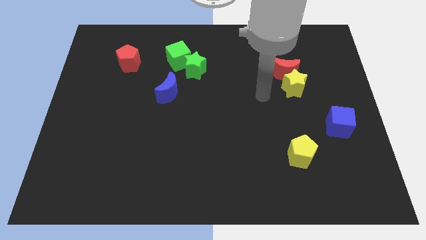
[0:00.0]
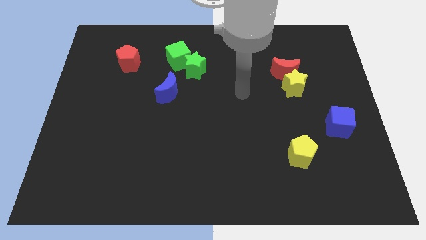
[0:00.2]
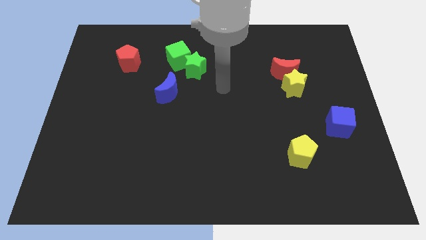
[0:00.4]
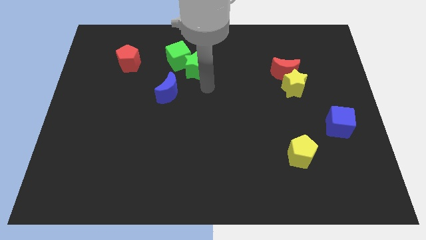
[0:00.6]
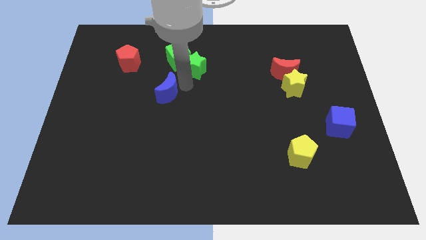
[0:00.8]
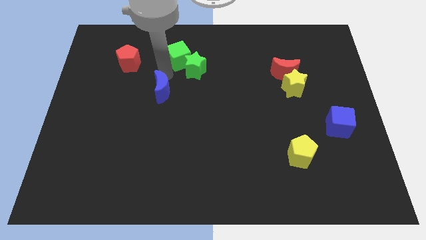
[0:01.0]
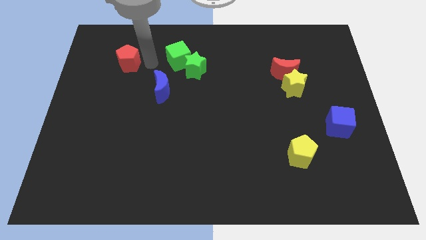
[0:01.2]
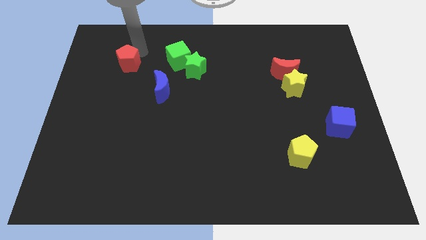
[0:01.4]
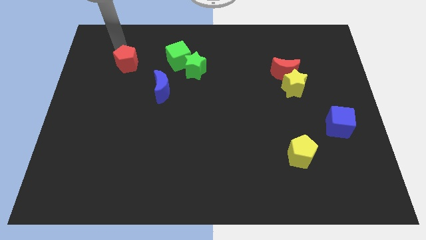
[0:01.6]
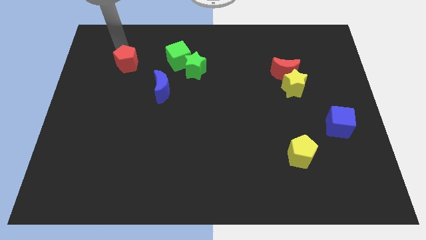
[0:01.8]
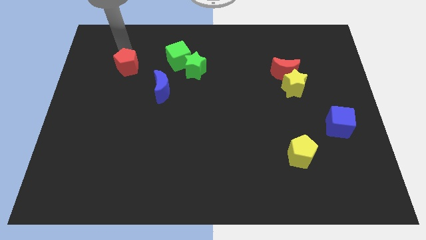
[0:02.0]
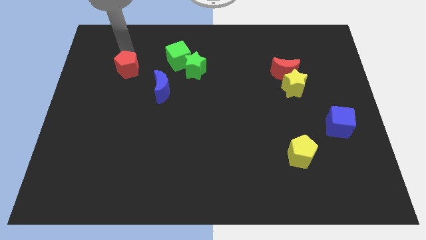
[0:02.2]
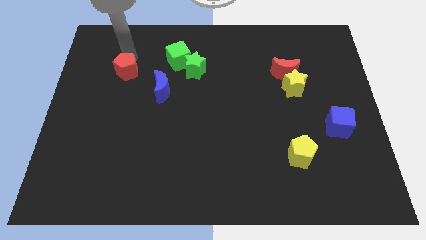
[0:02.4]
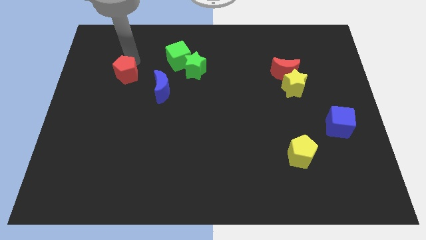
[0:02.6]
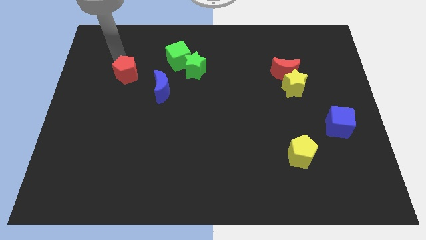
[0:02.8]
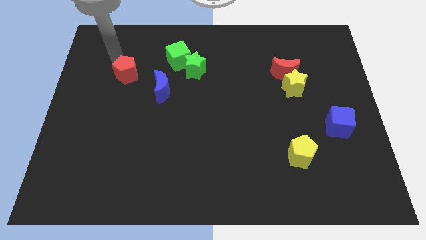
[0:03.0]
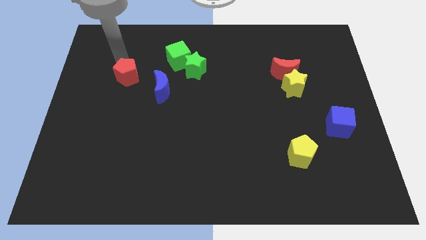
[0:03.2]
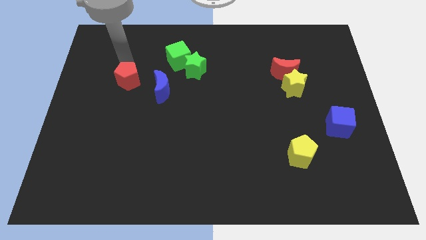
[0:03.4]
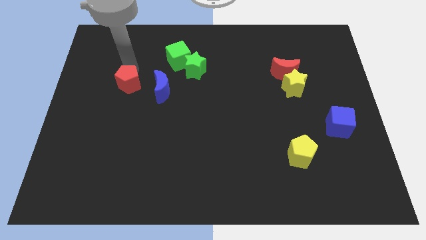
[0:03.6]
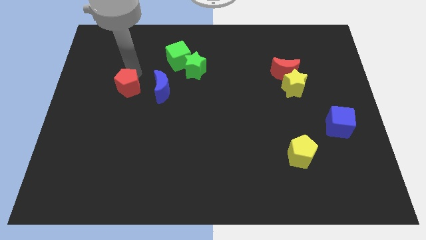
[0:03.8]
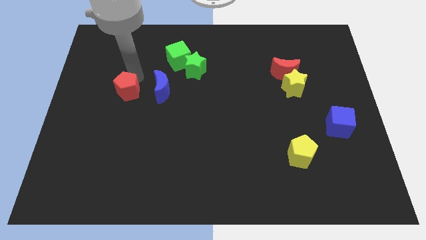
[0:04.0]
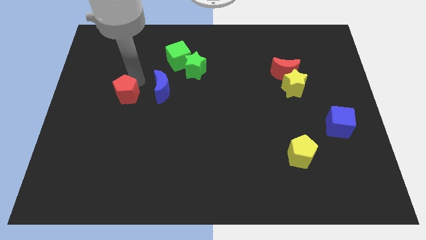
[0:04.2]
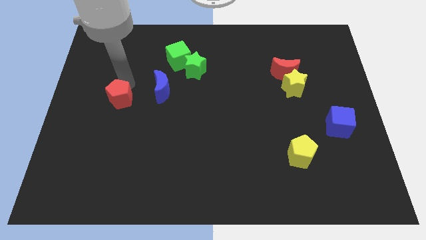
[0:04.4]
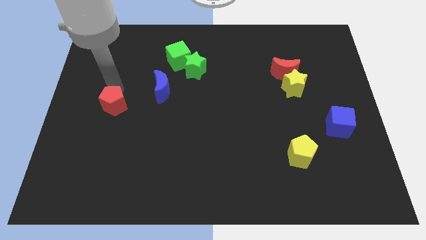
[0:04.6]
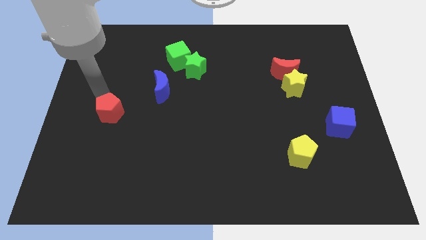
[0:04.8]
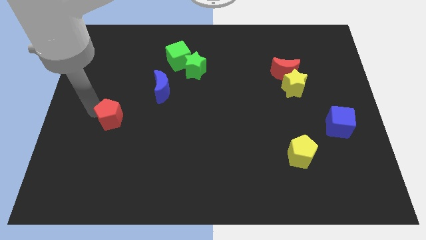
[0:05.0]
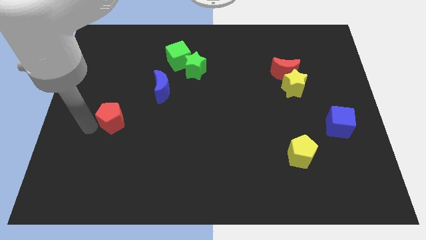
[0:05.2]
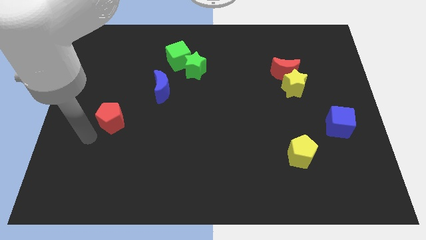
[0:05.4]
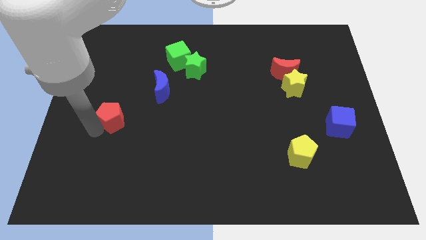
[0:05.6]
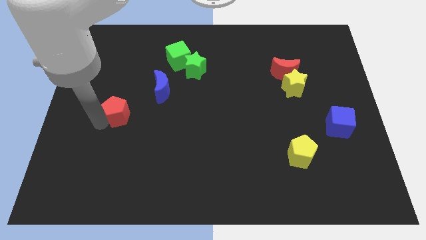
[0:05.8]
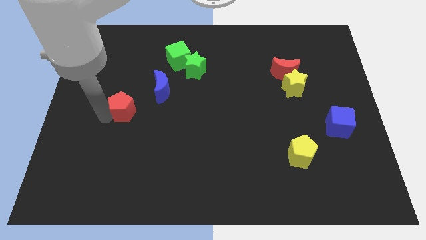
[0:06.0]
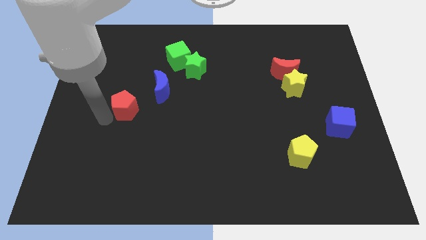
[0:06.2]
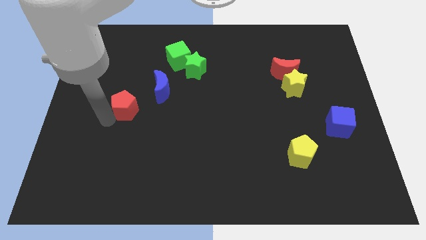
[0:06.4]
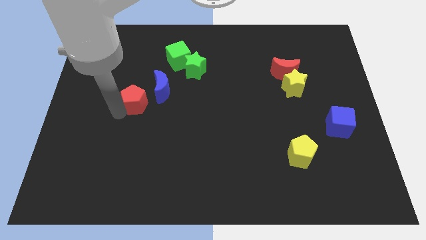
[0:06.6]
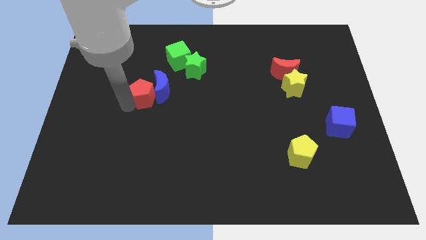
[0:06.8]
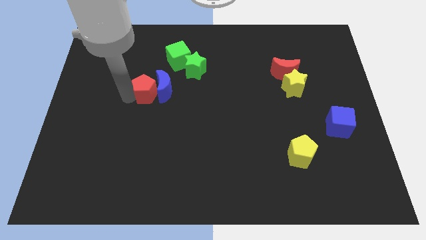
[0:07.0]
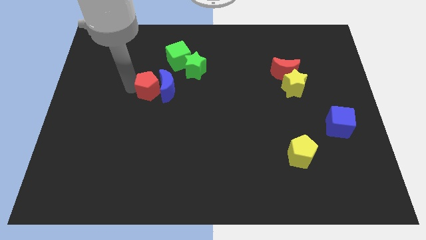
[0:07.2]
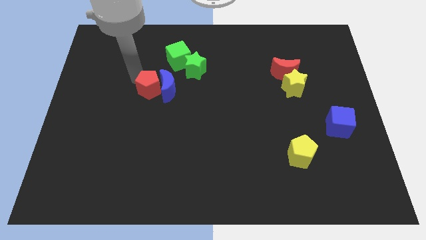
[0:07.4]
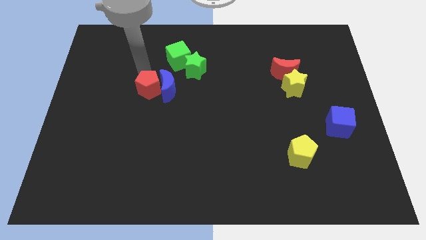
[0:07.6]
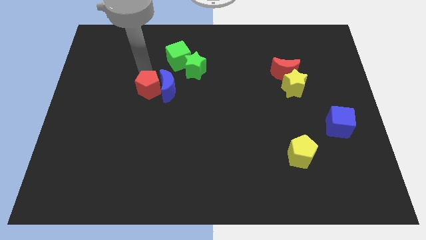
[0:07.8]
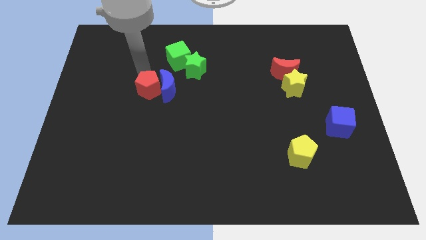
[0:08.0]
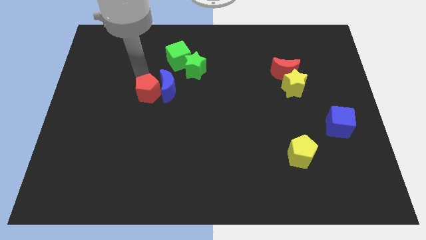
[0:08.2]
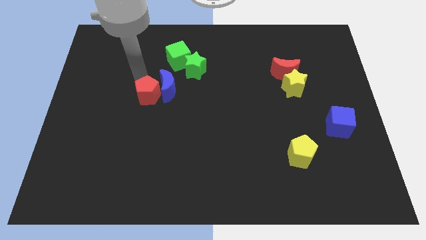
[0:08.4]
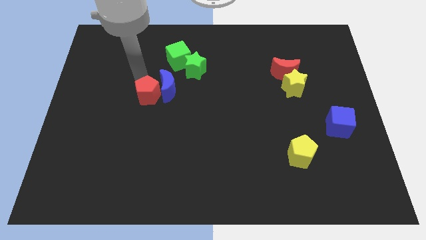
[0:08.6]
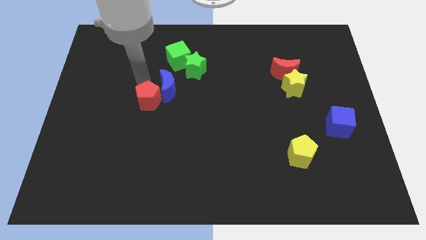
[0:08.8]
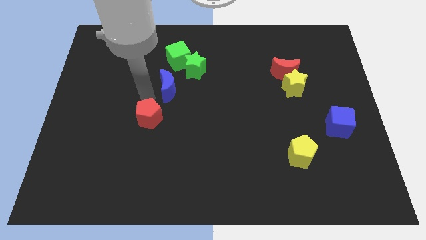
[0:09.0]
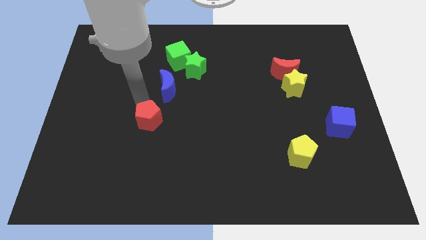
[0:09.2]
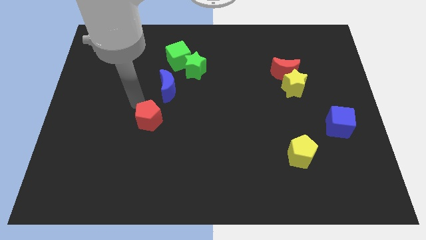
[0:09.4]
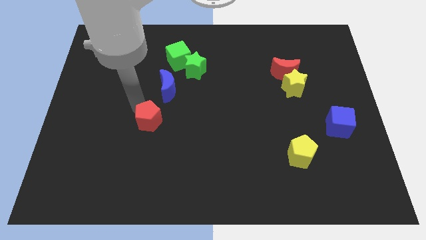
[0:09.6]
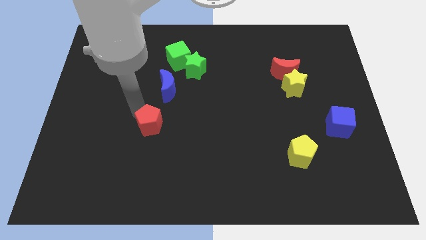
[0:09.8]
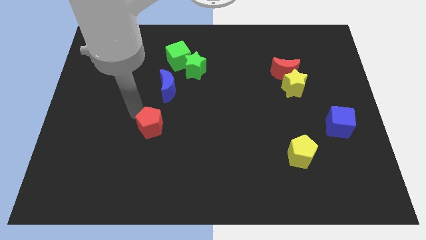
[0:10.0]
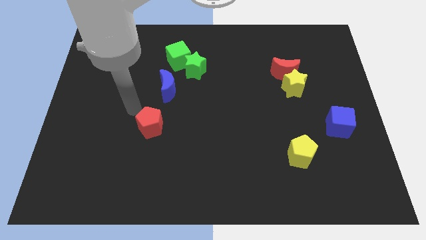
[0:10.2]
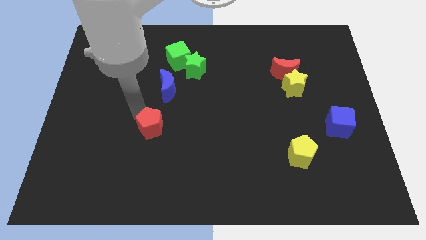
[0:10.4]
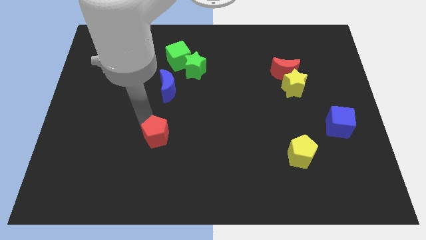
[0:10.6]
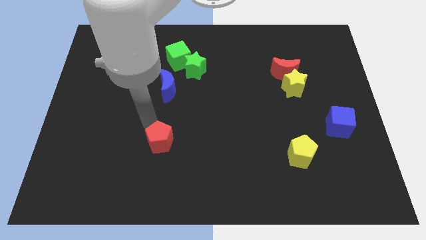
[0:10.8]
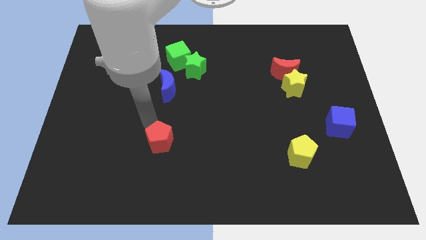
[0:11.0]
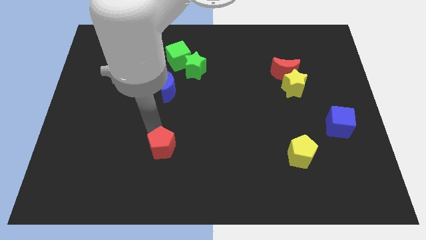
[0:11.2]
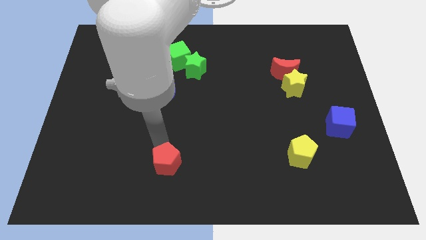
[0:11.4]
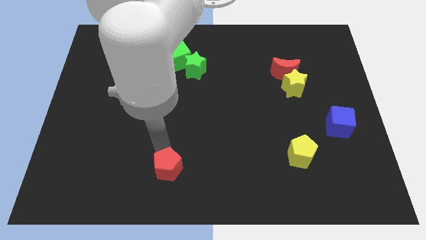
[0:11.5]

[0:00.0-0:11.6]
push the red pentagon to the bottom

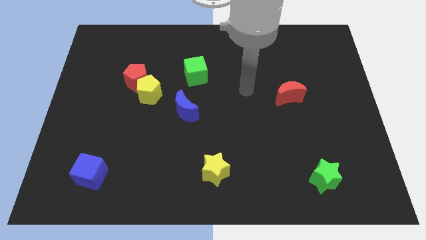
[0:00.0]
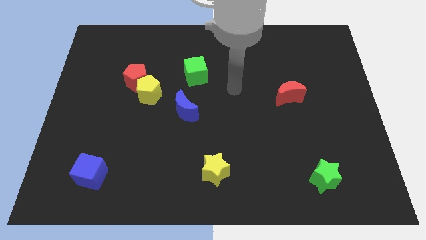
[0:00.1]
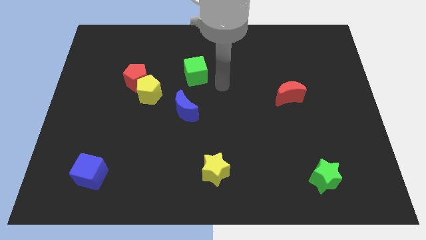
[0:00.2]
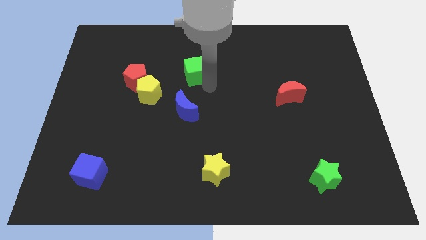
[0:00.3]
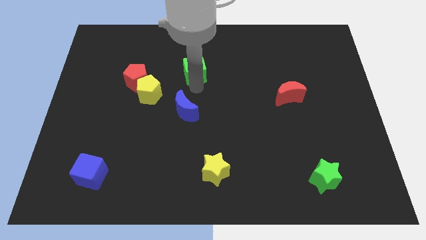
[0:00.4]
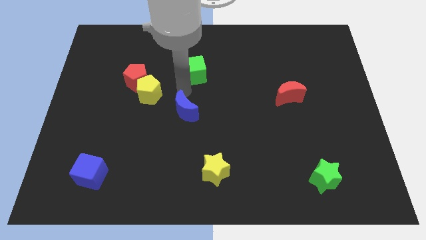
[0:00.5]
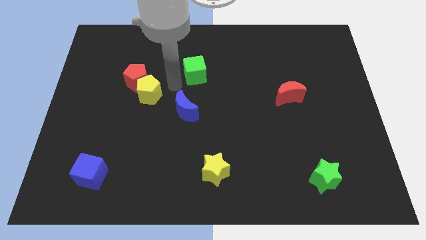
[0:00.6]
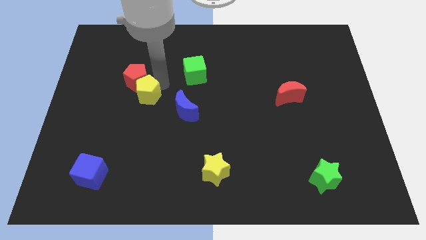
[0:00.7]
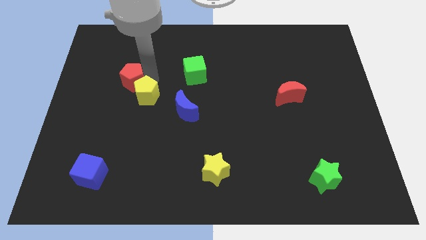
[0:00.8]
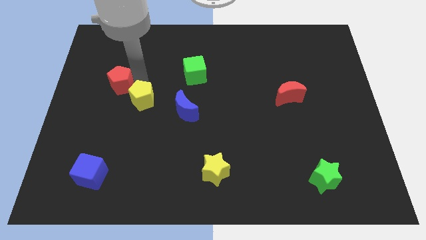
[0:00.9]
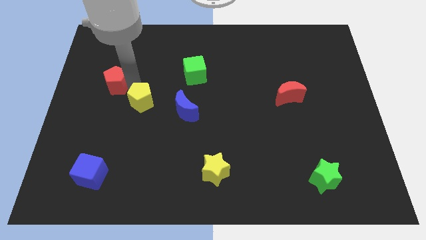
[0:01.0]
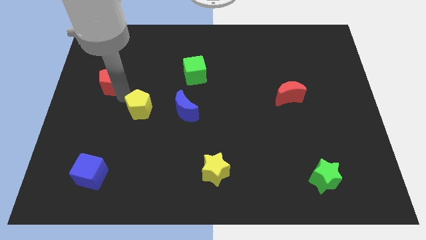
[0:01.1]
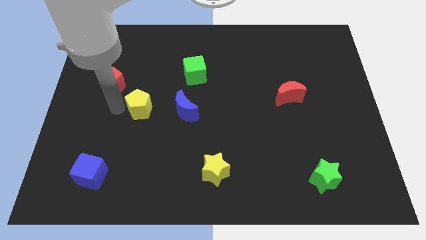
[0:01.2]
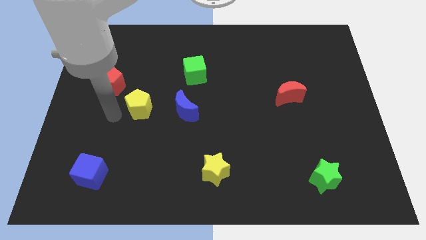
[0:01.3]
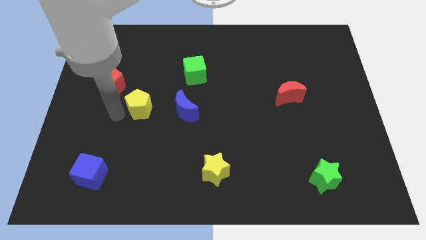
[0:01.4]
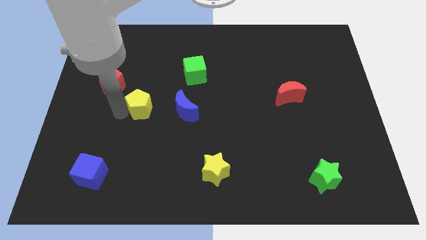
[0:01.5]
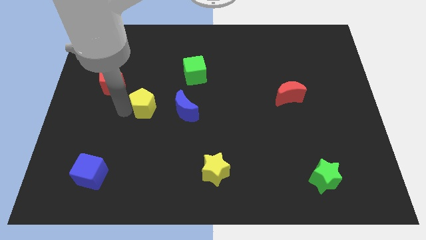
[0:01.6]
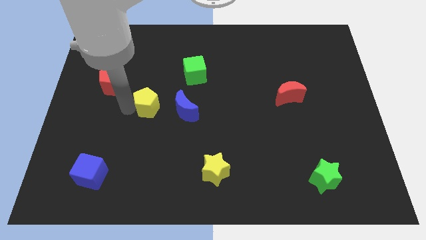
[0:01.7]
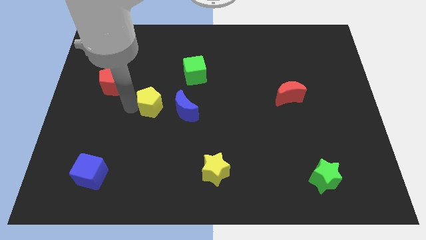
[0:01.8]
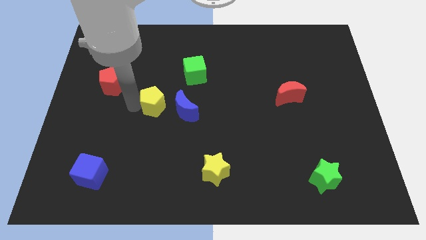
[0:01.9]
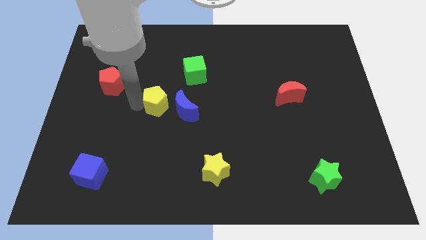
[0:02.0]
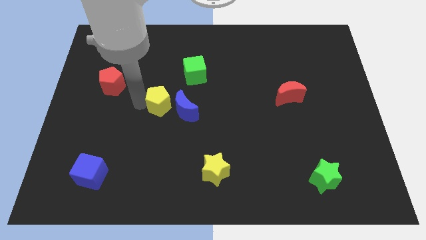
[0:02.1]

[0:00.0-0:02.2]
push the yellow pentagon to the middle
